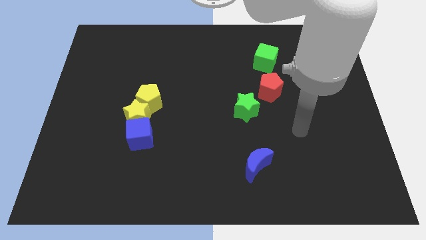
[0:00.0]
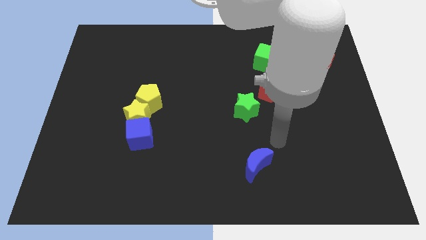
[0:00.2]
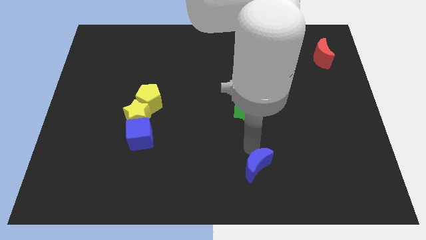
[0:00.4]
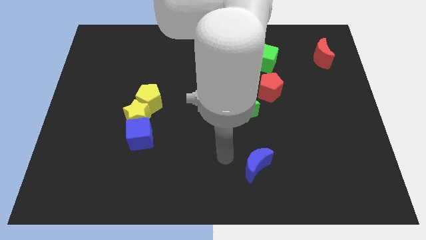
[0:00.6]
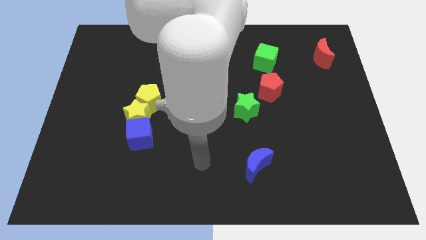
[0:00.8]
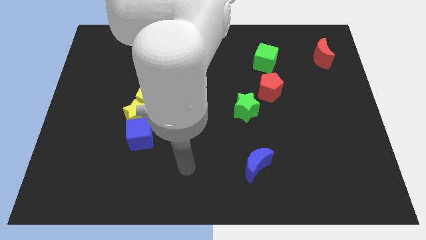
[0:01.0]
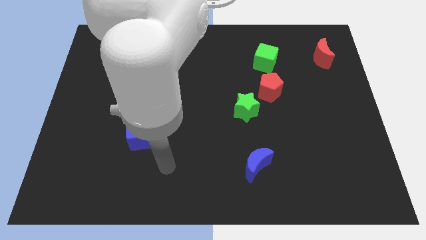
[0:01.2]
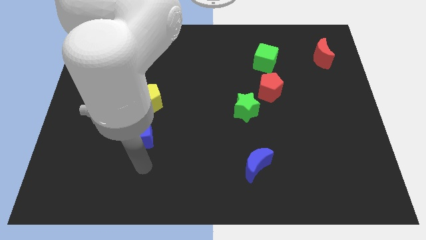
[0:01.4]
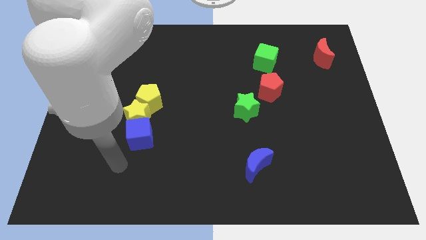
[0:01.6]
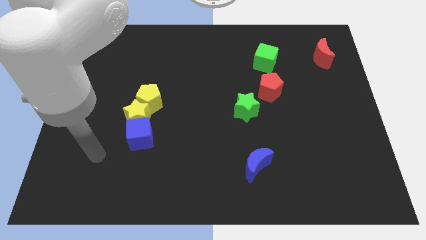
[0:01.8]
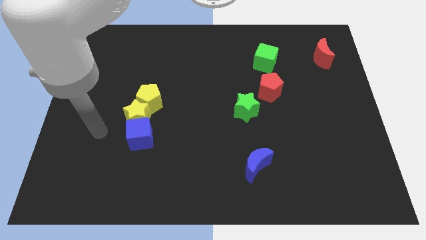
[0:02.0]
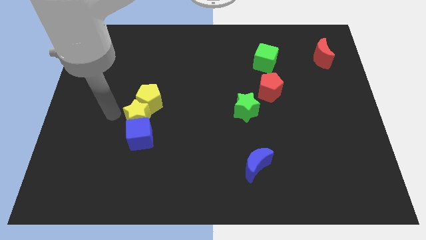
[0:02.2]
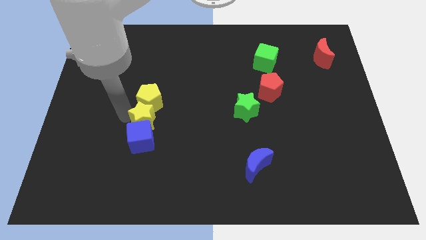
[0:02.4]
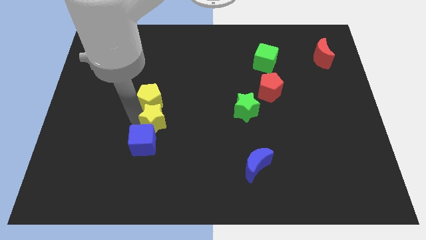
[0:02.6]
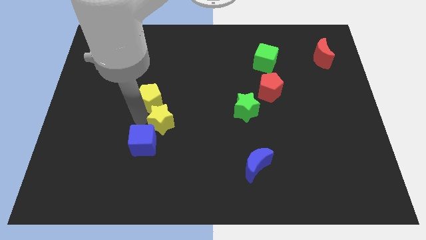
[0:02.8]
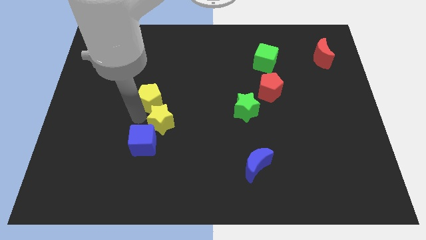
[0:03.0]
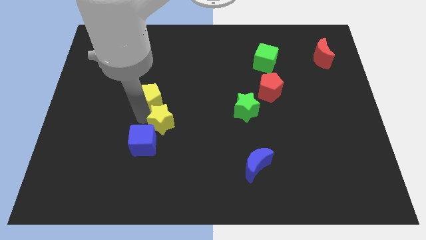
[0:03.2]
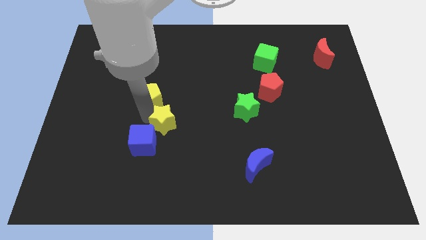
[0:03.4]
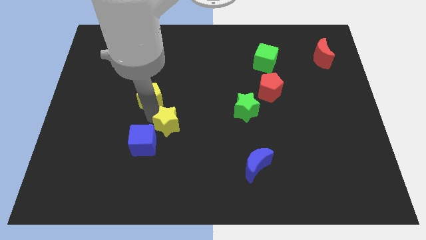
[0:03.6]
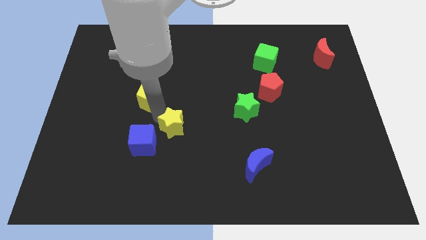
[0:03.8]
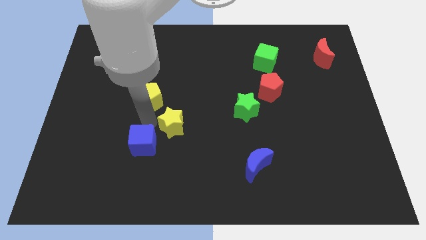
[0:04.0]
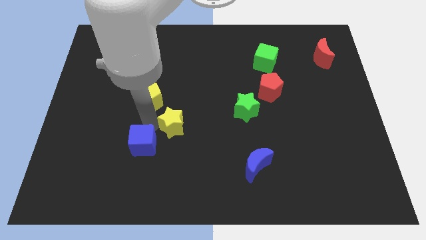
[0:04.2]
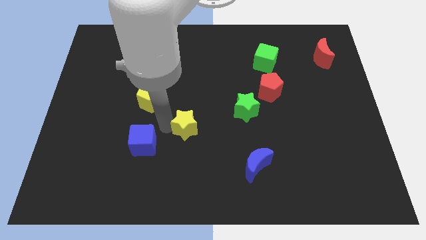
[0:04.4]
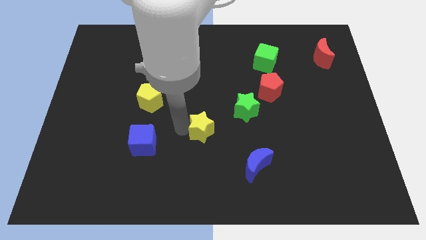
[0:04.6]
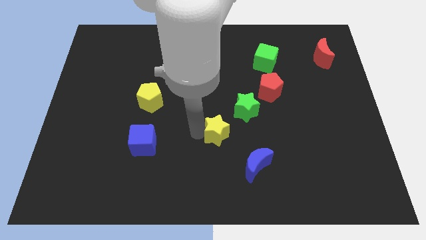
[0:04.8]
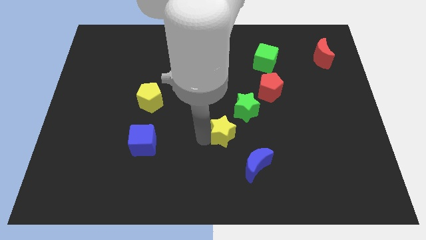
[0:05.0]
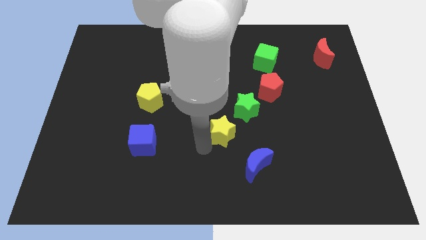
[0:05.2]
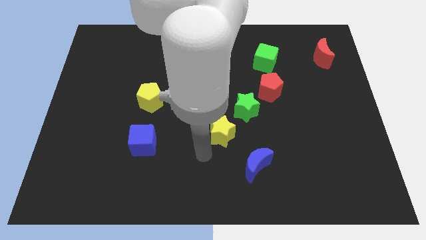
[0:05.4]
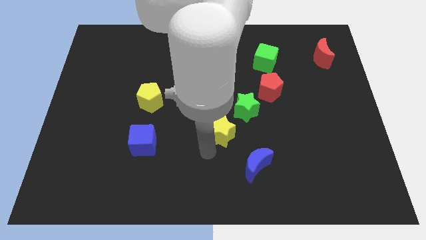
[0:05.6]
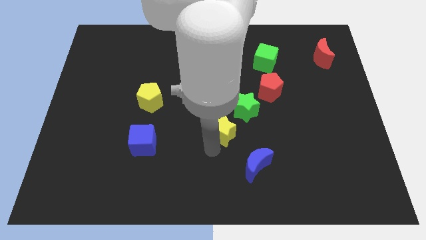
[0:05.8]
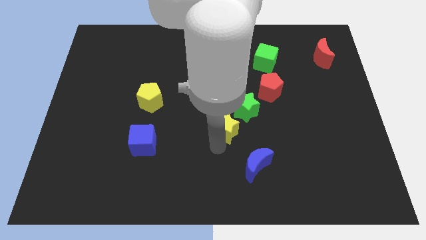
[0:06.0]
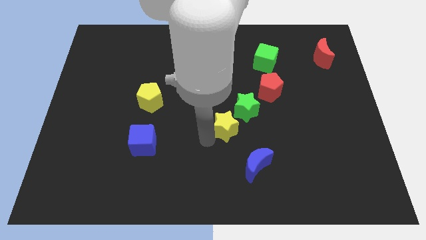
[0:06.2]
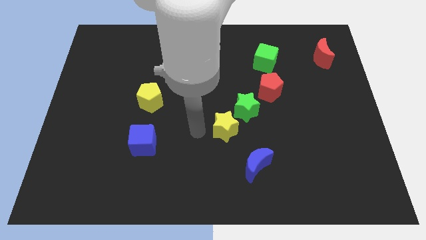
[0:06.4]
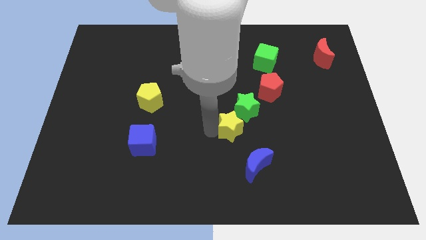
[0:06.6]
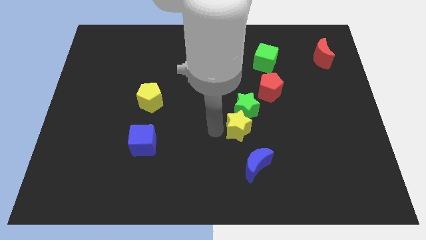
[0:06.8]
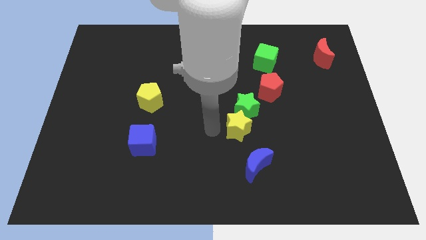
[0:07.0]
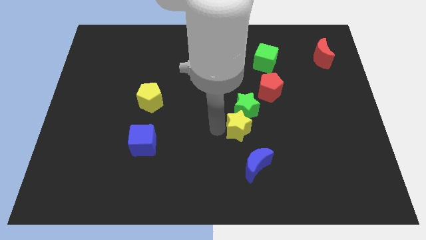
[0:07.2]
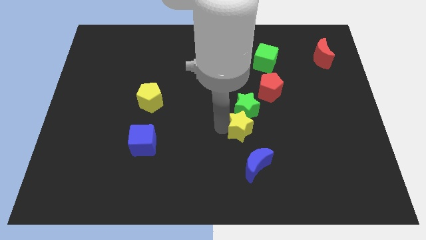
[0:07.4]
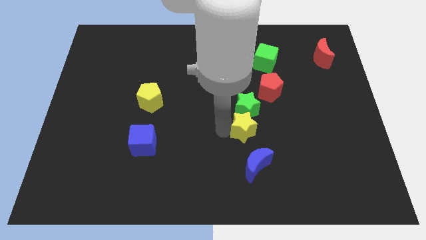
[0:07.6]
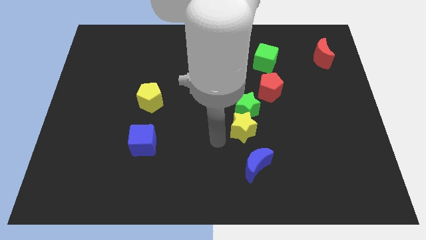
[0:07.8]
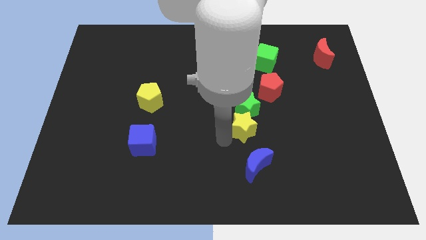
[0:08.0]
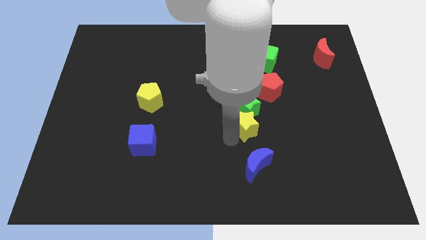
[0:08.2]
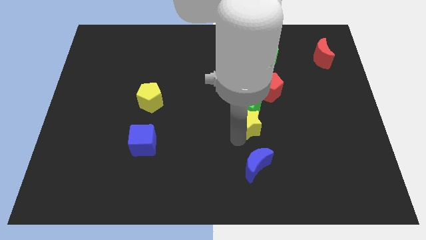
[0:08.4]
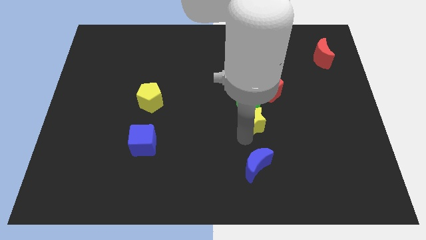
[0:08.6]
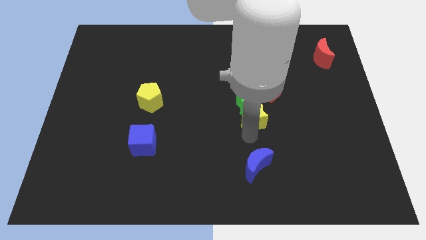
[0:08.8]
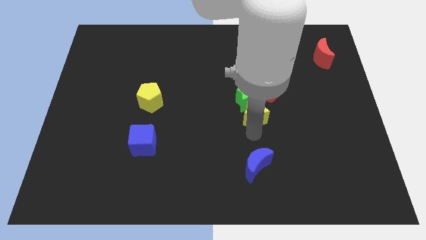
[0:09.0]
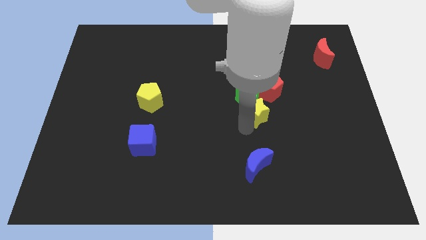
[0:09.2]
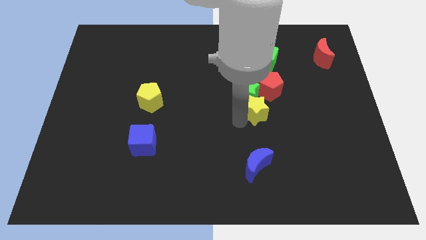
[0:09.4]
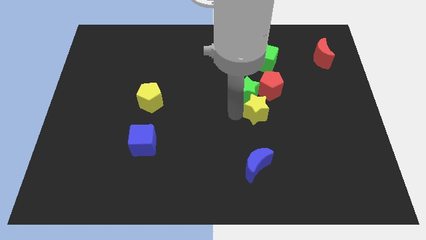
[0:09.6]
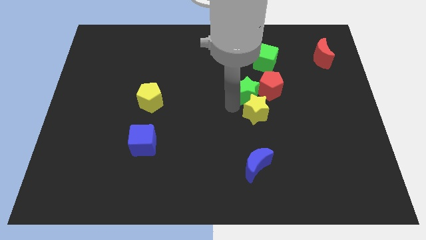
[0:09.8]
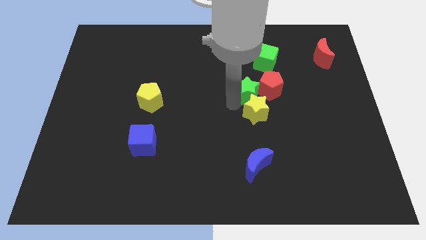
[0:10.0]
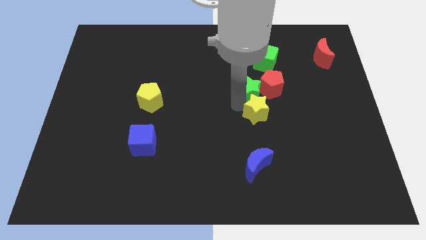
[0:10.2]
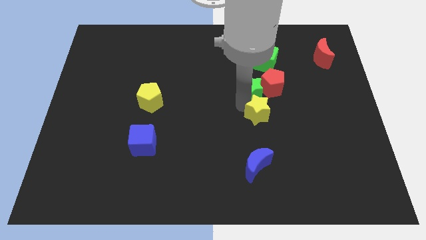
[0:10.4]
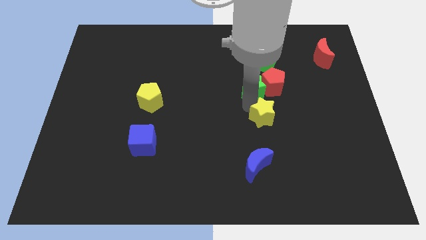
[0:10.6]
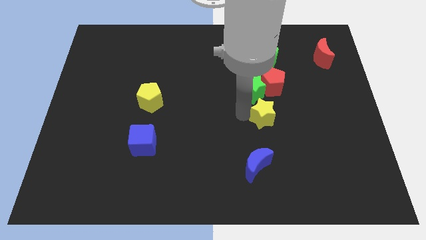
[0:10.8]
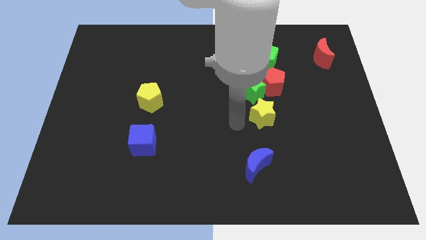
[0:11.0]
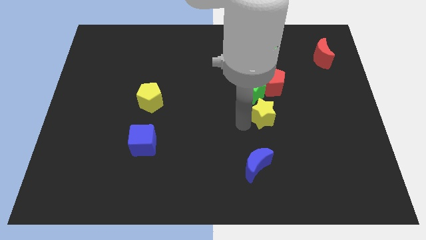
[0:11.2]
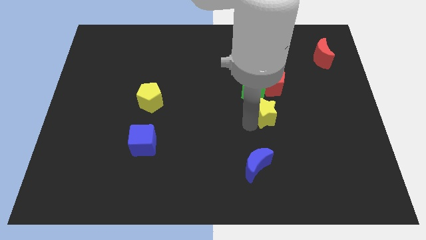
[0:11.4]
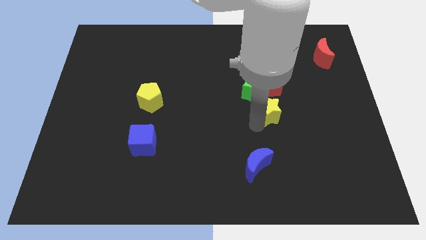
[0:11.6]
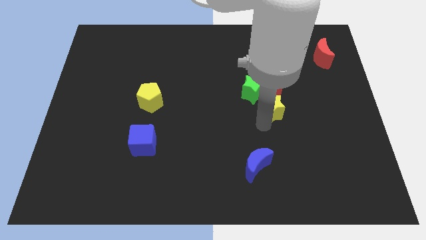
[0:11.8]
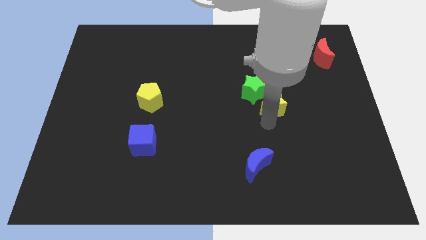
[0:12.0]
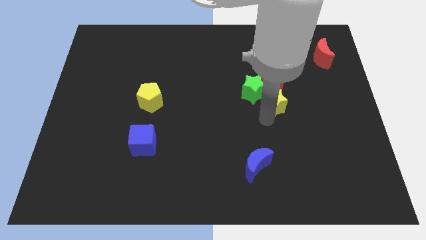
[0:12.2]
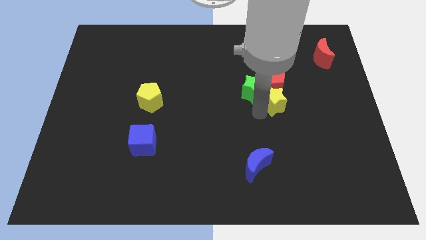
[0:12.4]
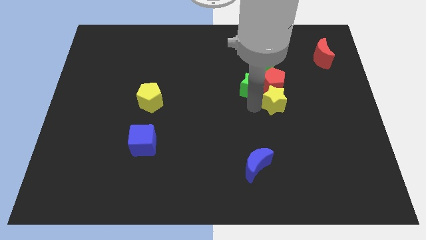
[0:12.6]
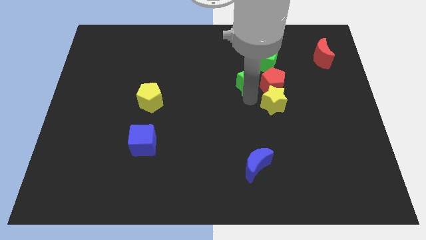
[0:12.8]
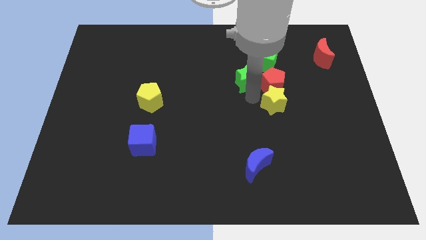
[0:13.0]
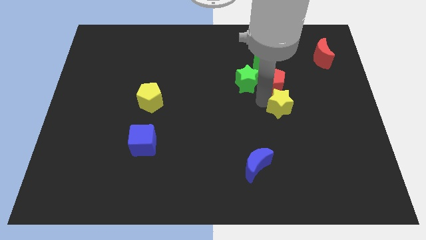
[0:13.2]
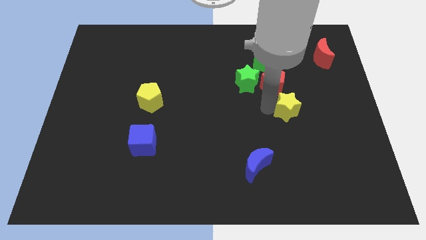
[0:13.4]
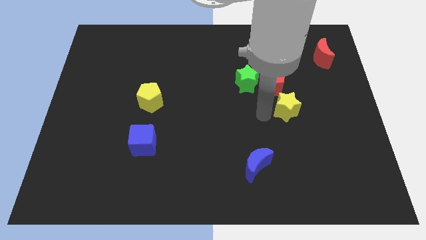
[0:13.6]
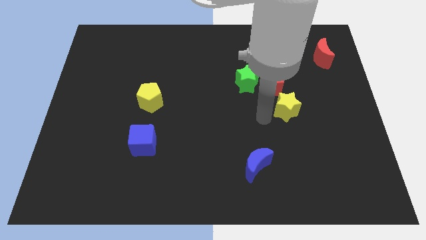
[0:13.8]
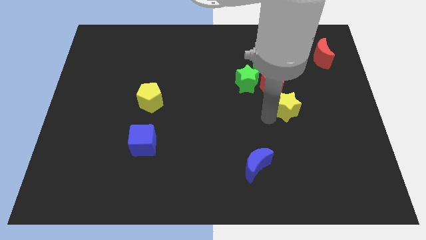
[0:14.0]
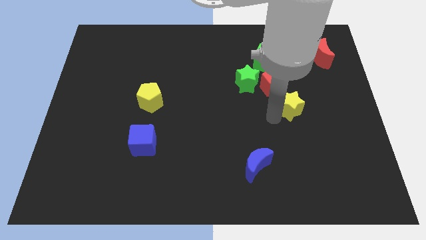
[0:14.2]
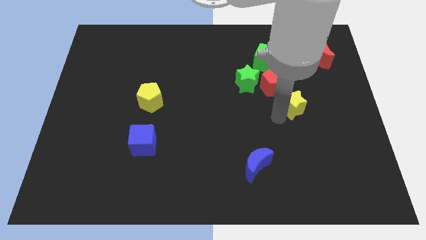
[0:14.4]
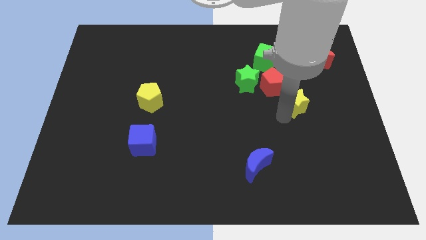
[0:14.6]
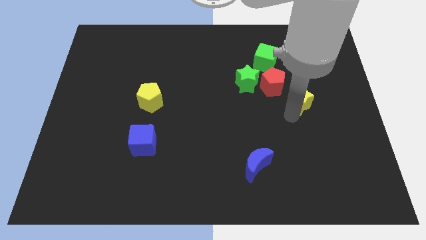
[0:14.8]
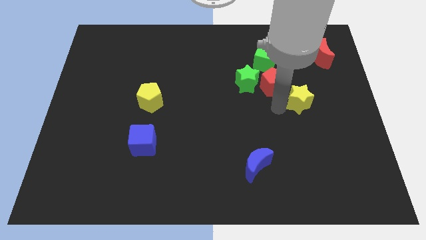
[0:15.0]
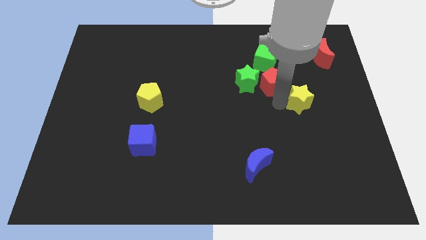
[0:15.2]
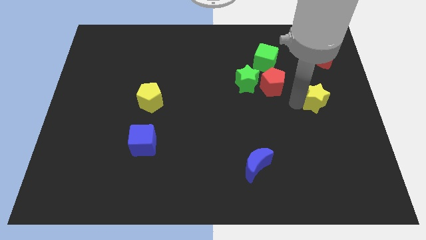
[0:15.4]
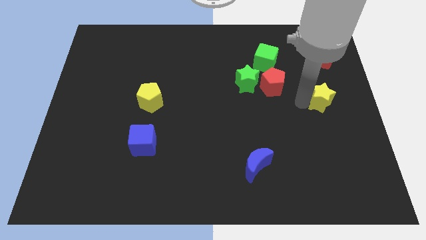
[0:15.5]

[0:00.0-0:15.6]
put the yellow star to the right side of the board
